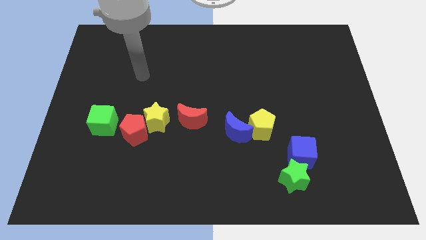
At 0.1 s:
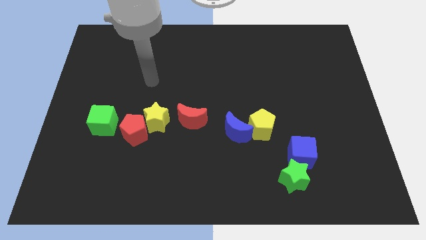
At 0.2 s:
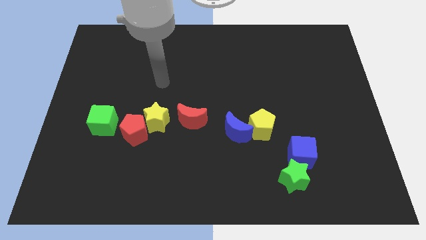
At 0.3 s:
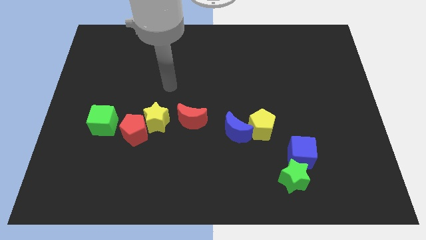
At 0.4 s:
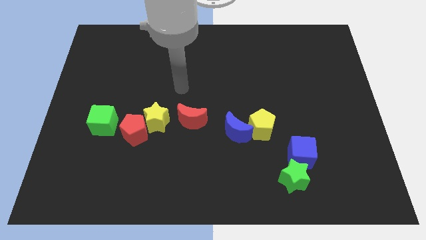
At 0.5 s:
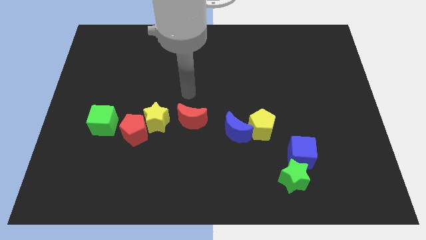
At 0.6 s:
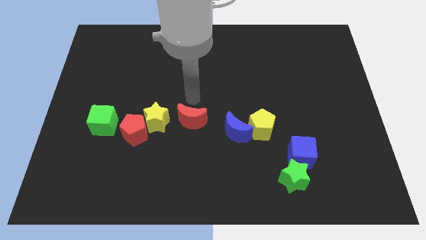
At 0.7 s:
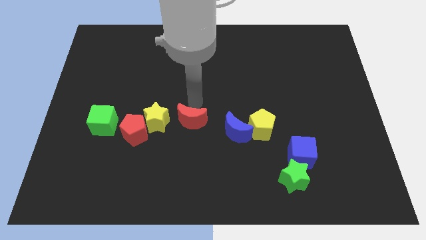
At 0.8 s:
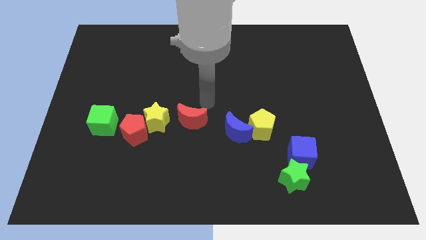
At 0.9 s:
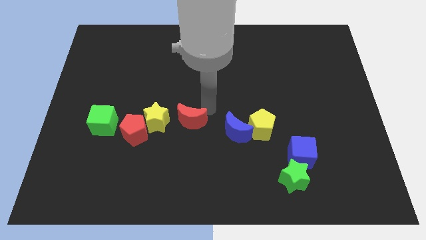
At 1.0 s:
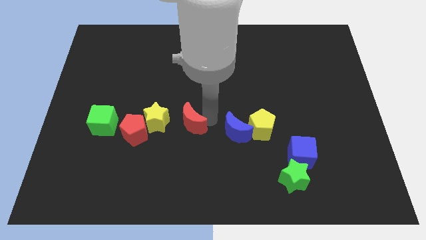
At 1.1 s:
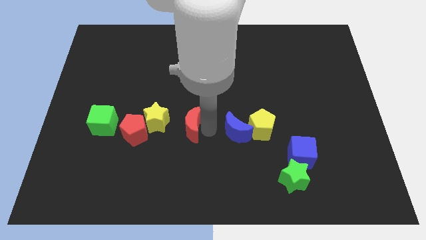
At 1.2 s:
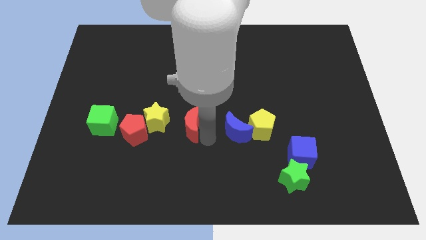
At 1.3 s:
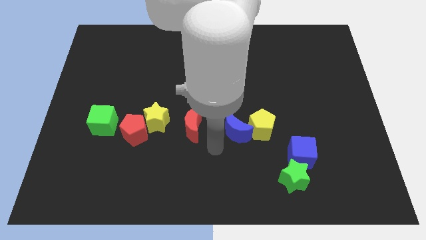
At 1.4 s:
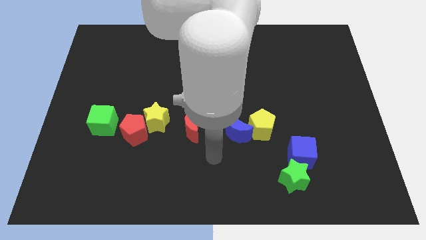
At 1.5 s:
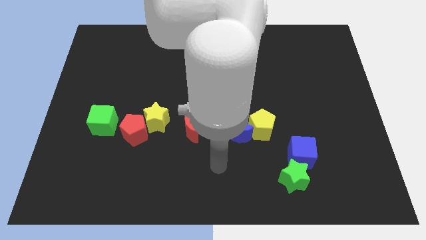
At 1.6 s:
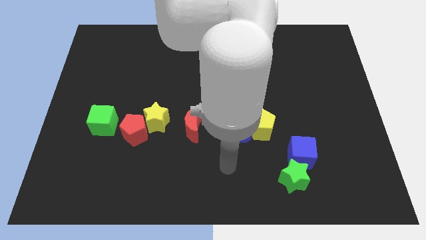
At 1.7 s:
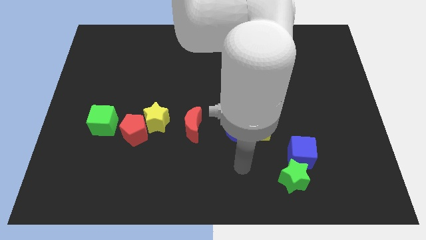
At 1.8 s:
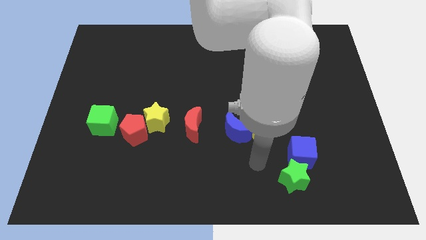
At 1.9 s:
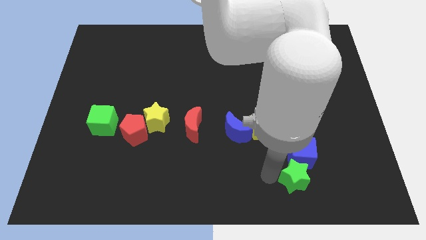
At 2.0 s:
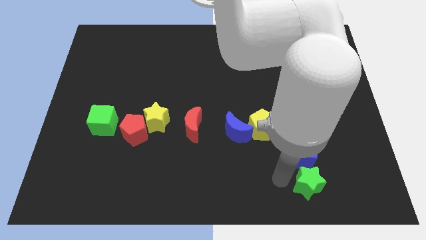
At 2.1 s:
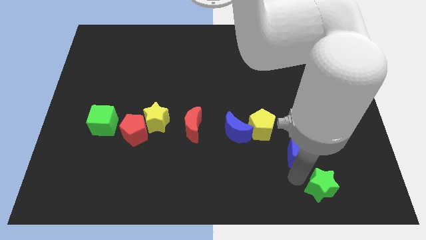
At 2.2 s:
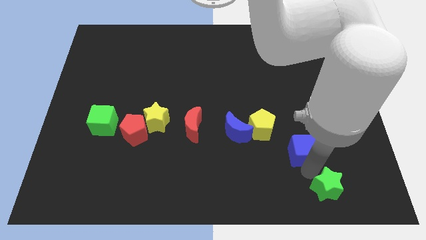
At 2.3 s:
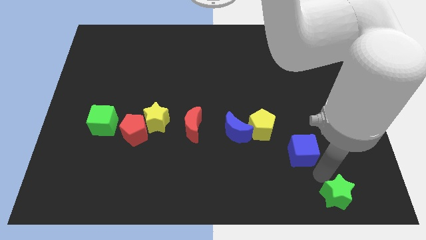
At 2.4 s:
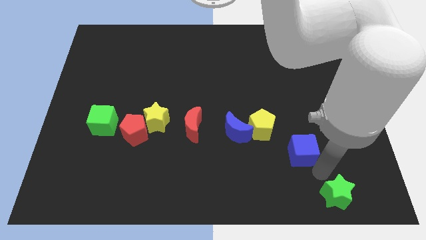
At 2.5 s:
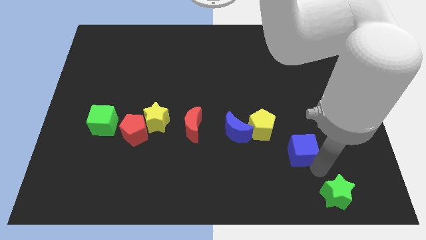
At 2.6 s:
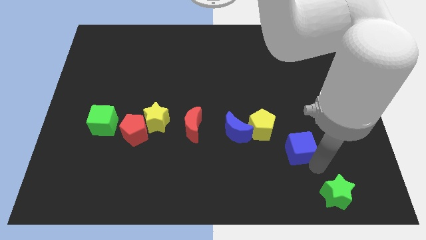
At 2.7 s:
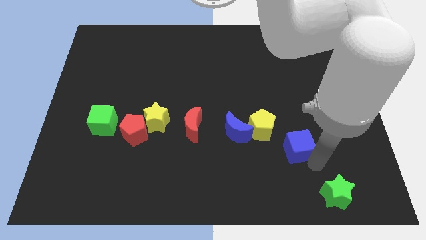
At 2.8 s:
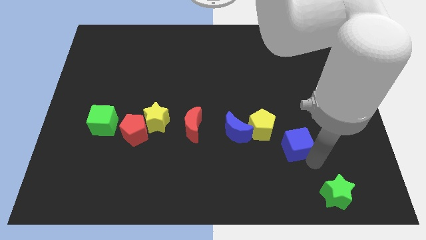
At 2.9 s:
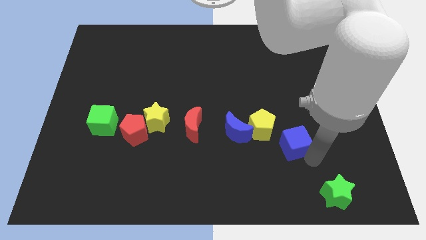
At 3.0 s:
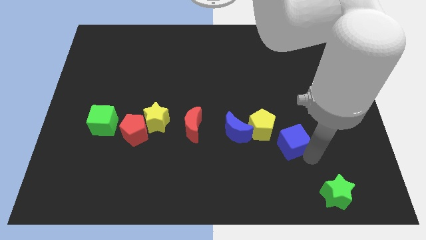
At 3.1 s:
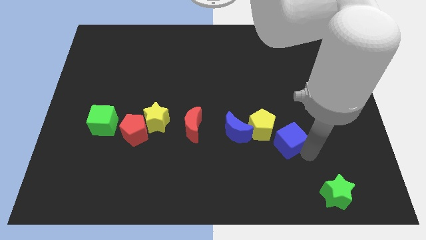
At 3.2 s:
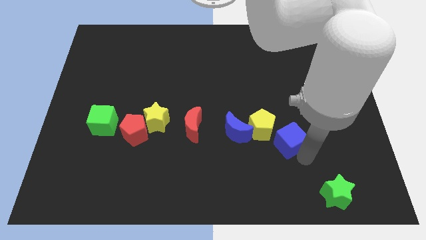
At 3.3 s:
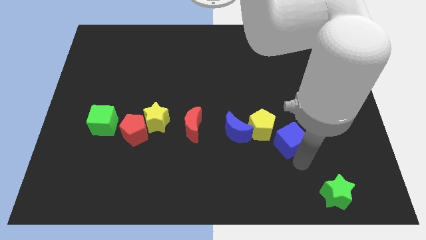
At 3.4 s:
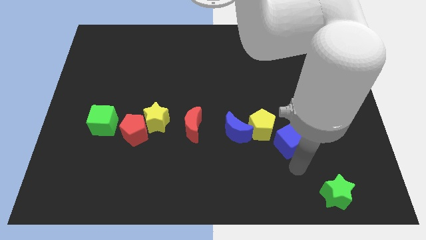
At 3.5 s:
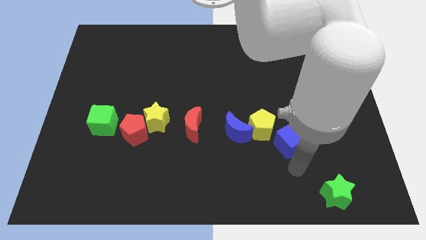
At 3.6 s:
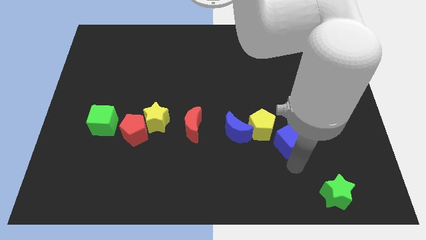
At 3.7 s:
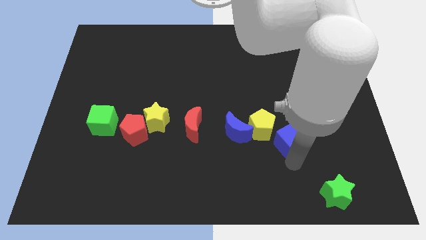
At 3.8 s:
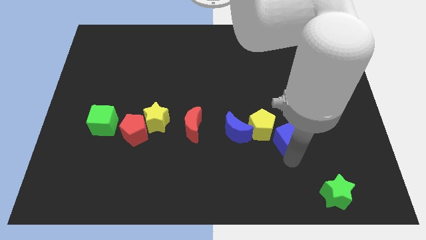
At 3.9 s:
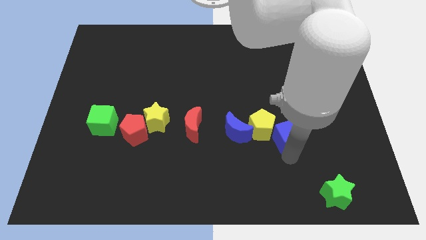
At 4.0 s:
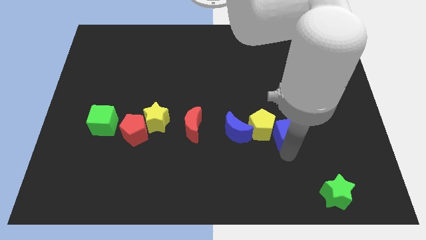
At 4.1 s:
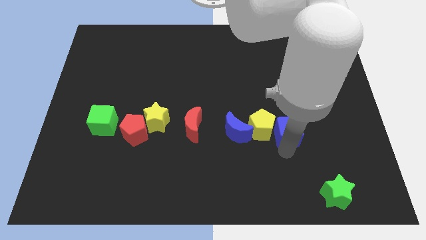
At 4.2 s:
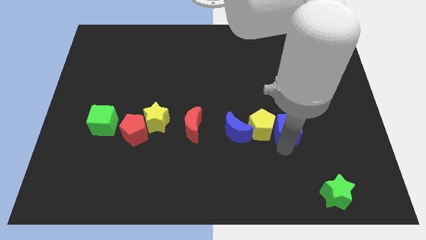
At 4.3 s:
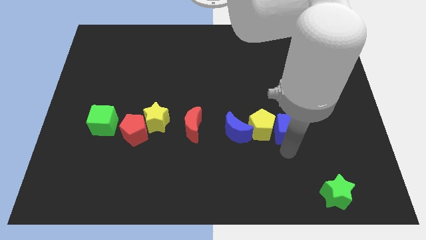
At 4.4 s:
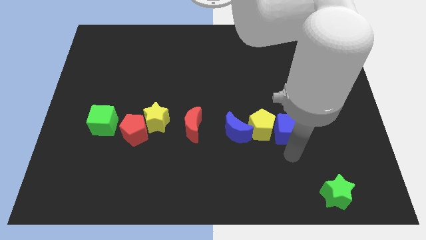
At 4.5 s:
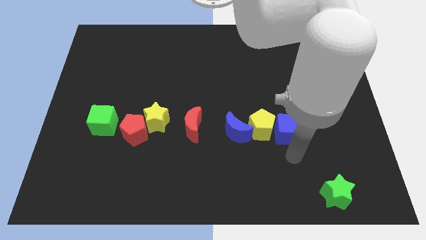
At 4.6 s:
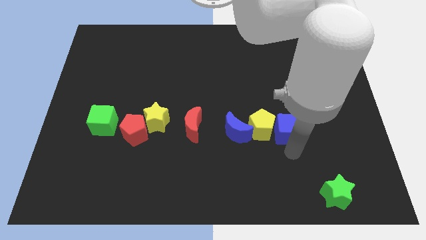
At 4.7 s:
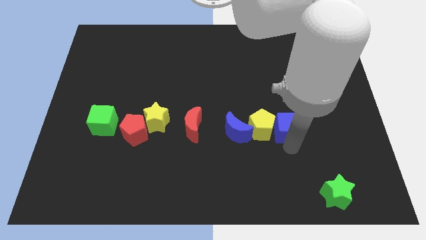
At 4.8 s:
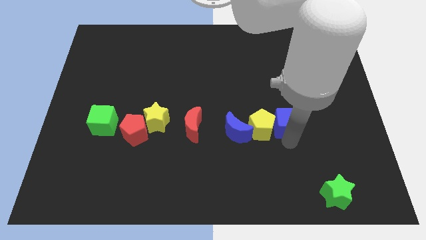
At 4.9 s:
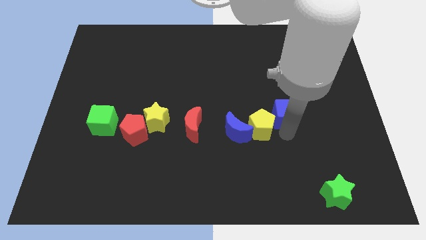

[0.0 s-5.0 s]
push the blue cube up and to the left a bit

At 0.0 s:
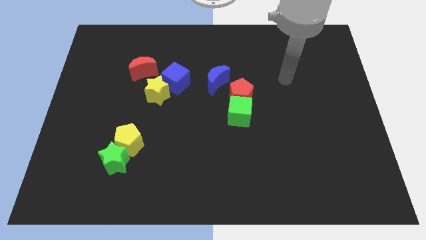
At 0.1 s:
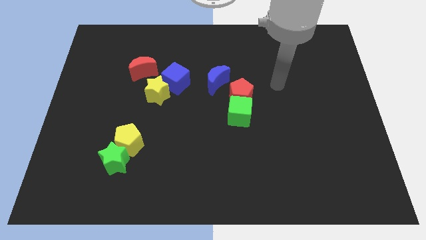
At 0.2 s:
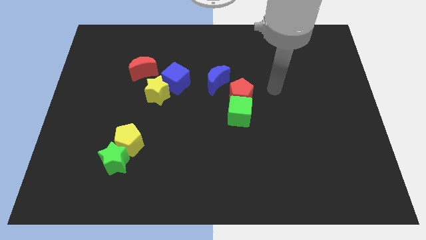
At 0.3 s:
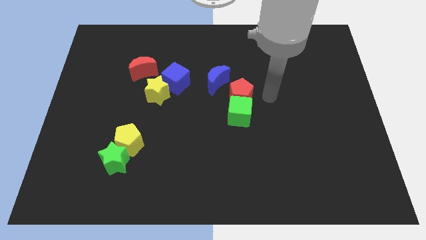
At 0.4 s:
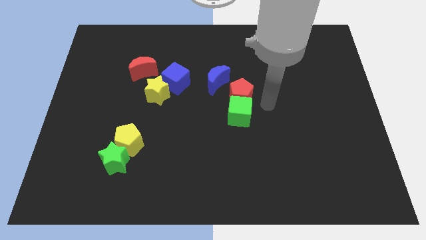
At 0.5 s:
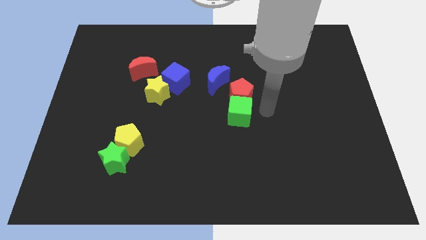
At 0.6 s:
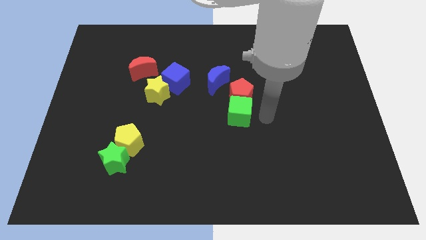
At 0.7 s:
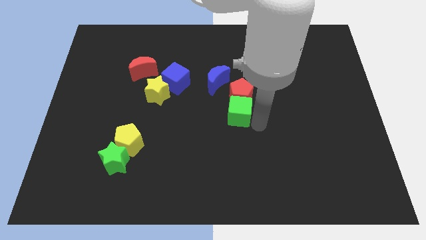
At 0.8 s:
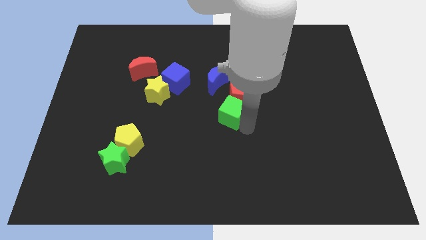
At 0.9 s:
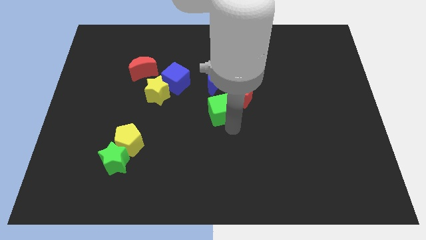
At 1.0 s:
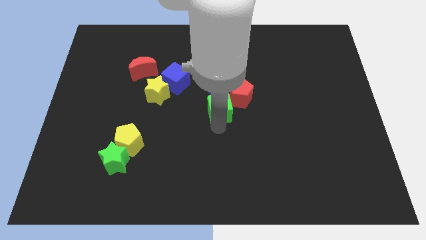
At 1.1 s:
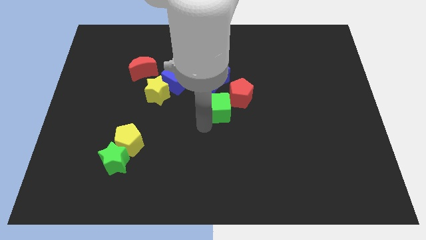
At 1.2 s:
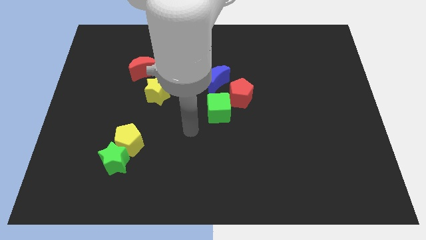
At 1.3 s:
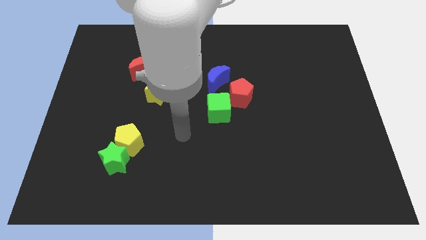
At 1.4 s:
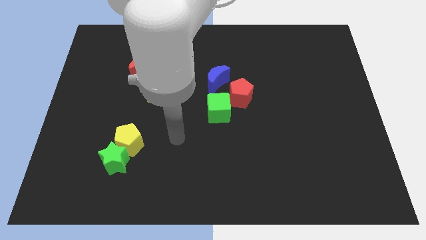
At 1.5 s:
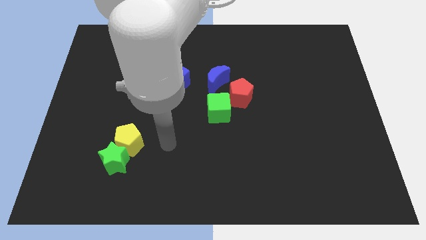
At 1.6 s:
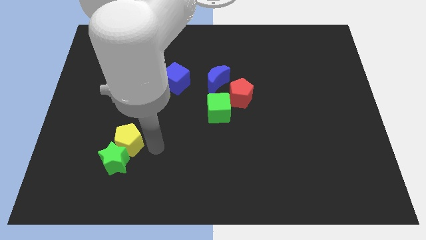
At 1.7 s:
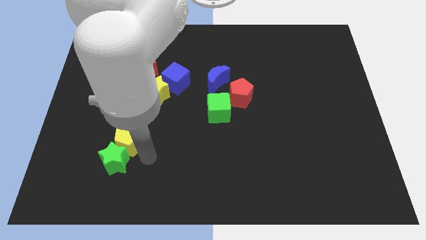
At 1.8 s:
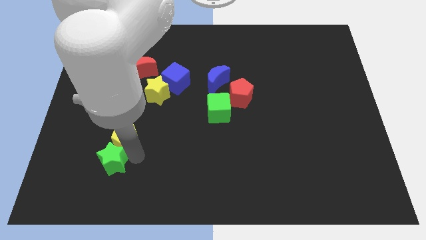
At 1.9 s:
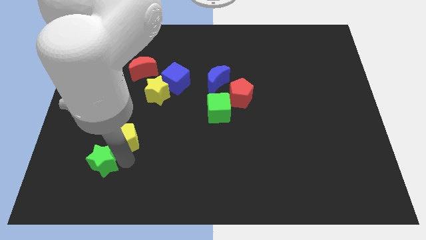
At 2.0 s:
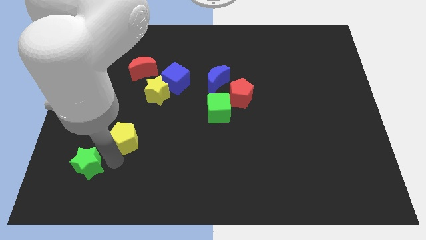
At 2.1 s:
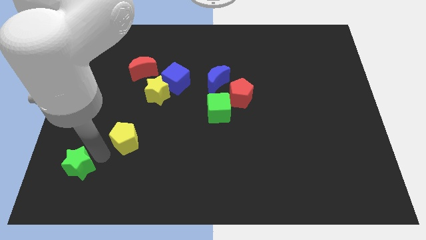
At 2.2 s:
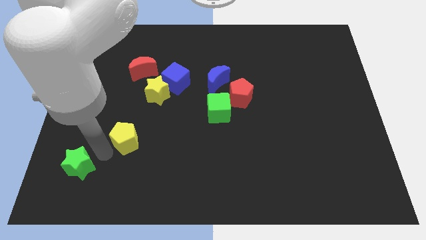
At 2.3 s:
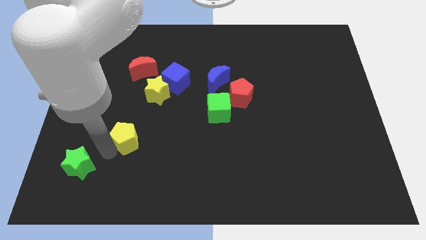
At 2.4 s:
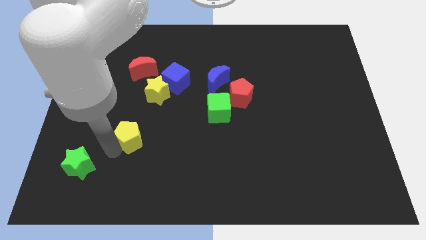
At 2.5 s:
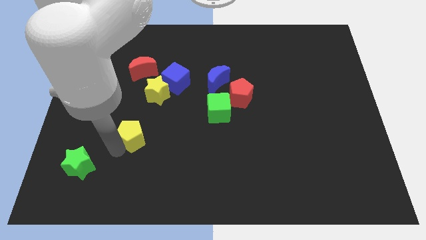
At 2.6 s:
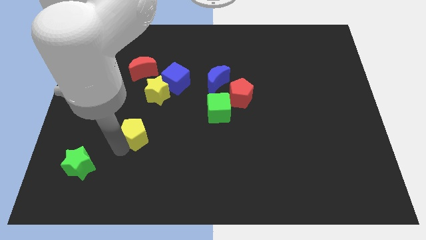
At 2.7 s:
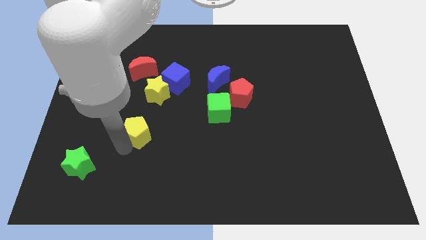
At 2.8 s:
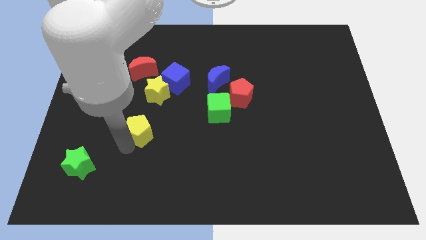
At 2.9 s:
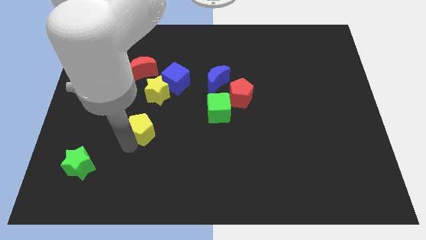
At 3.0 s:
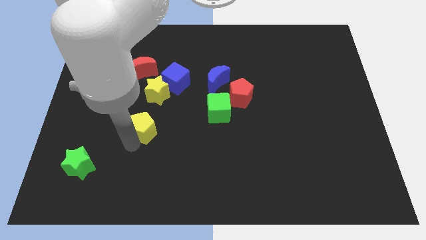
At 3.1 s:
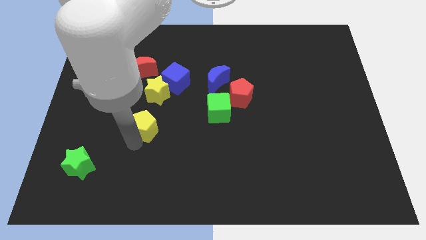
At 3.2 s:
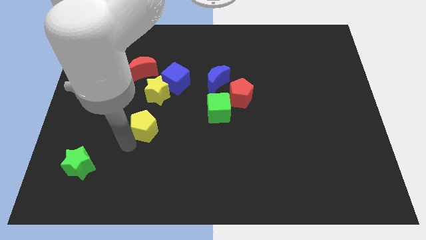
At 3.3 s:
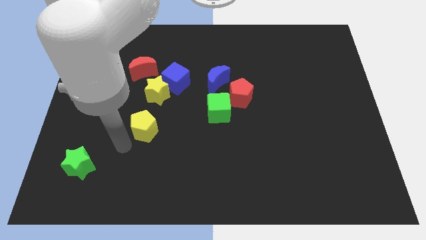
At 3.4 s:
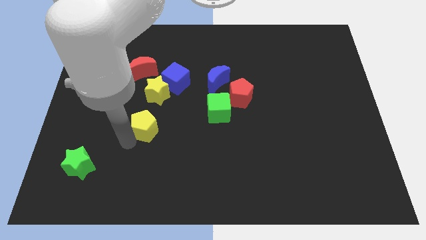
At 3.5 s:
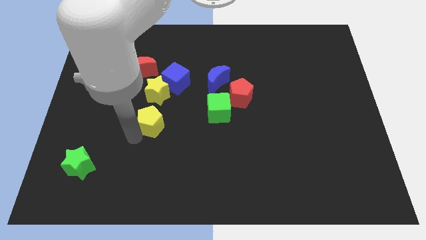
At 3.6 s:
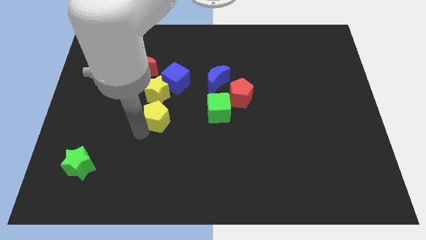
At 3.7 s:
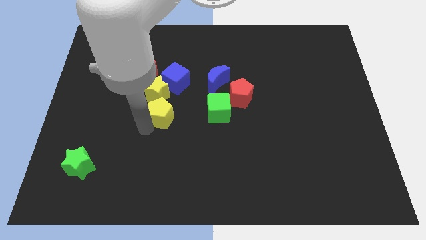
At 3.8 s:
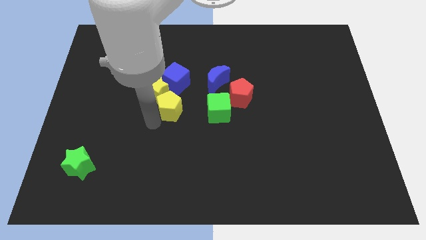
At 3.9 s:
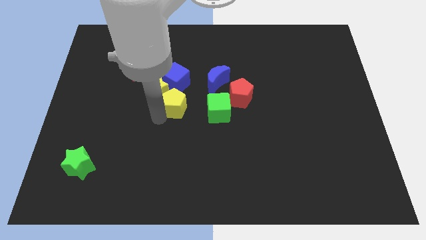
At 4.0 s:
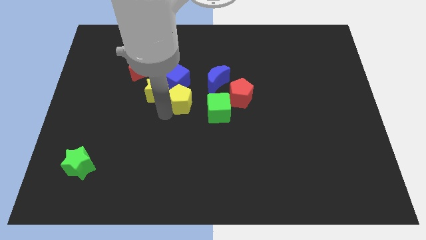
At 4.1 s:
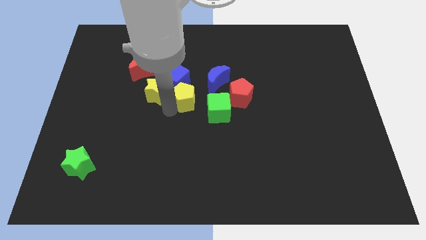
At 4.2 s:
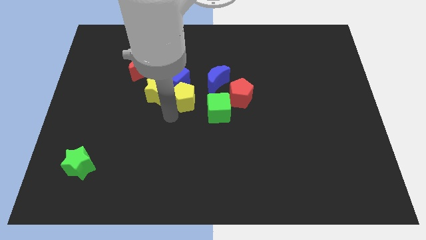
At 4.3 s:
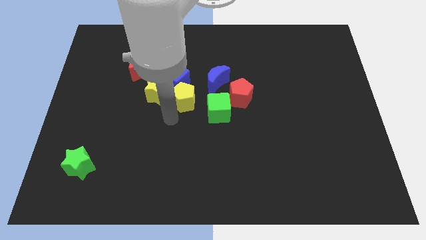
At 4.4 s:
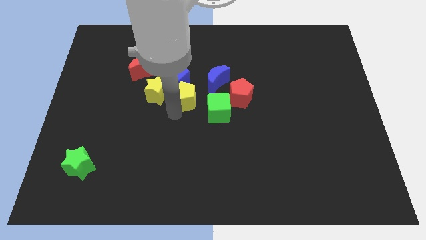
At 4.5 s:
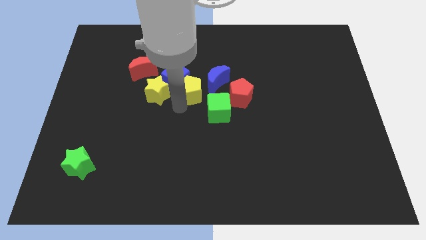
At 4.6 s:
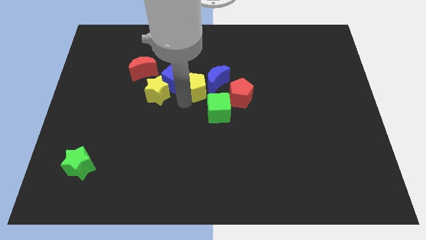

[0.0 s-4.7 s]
push the yellow pentagon up and right
